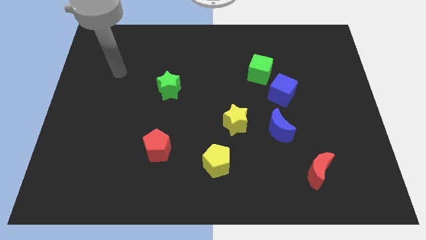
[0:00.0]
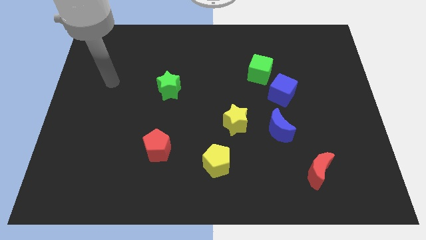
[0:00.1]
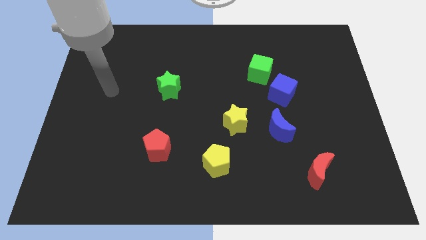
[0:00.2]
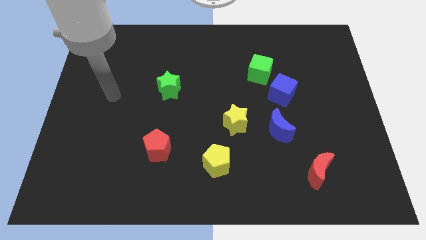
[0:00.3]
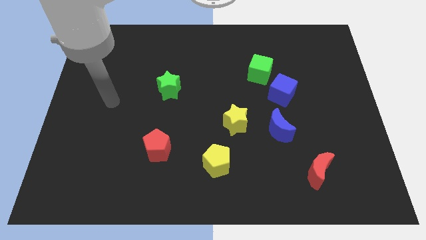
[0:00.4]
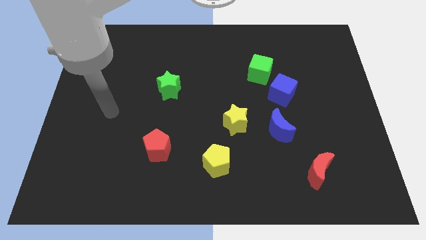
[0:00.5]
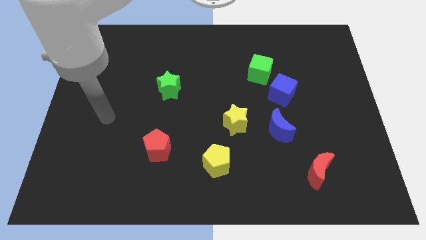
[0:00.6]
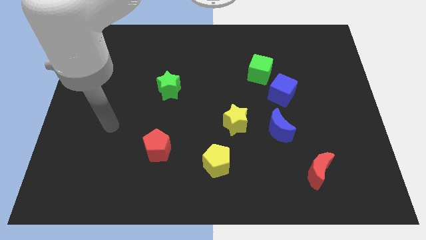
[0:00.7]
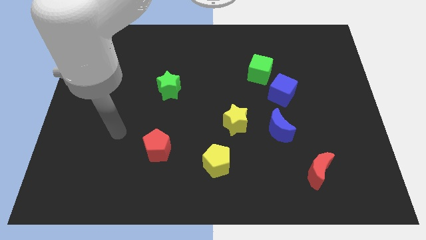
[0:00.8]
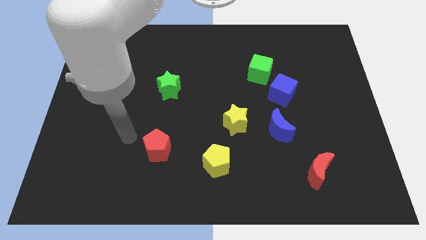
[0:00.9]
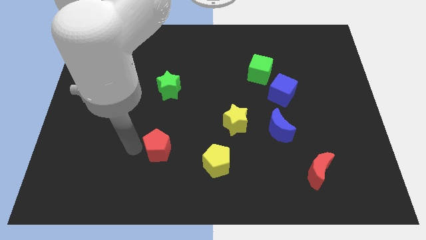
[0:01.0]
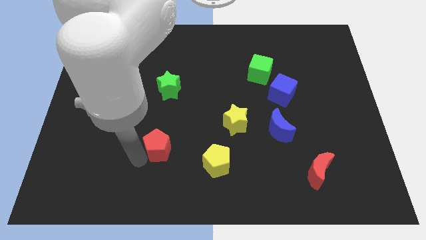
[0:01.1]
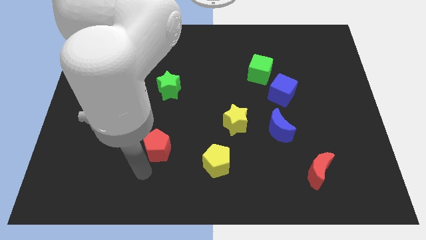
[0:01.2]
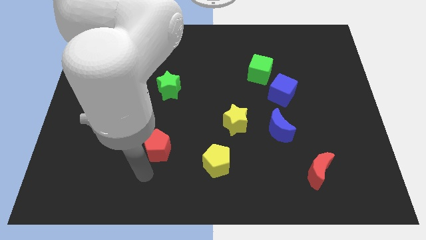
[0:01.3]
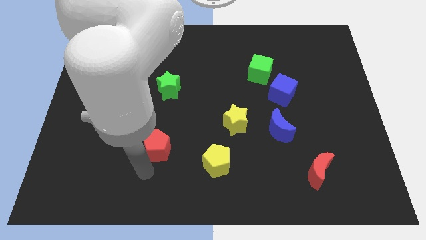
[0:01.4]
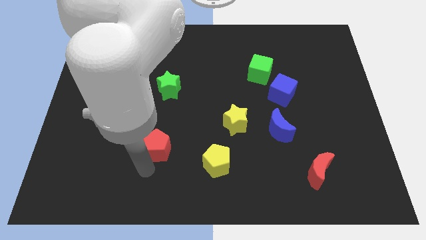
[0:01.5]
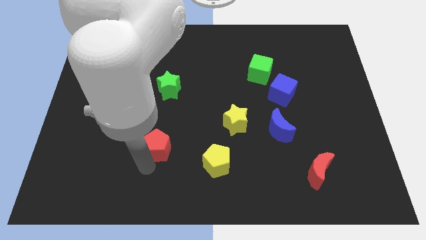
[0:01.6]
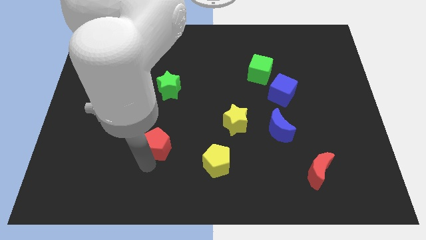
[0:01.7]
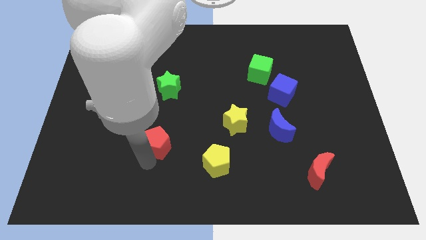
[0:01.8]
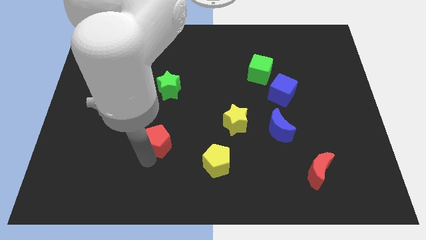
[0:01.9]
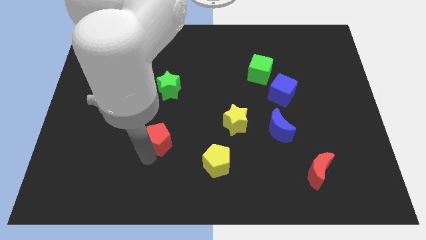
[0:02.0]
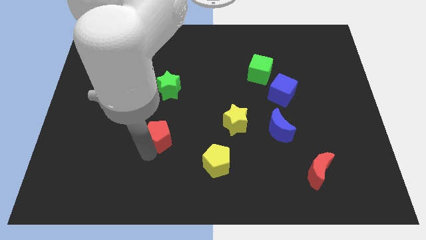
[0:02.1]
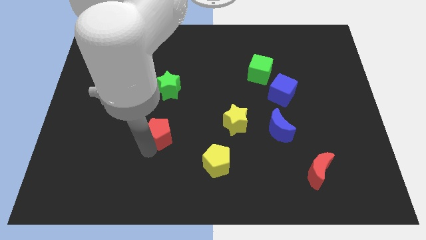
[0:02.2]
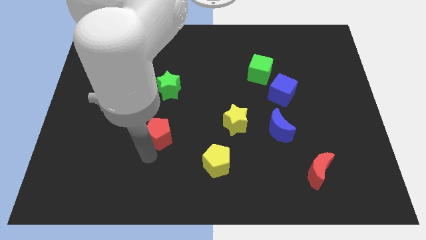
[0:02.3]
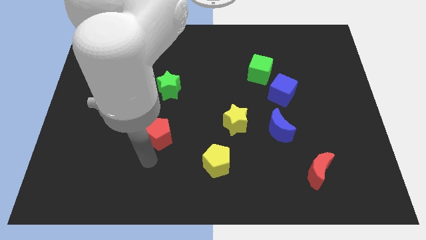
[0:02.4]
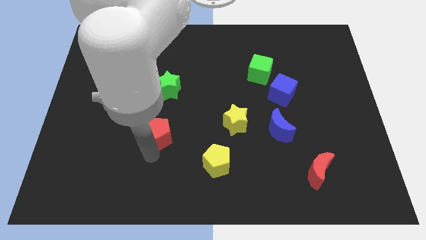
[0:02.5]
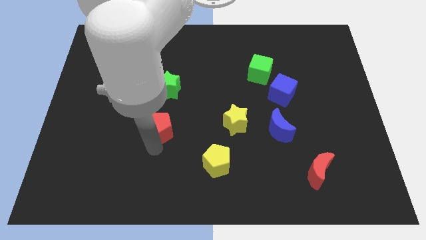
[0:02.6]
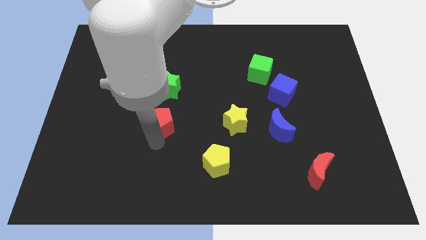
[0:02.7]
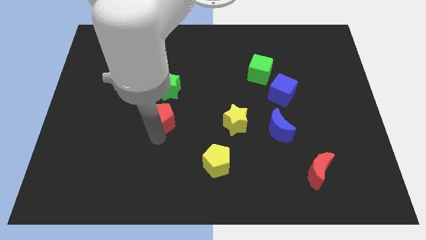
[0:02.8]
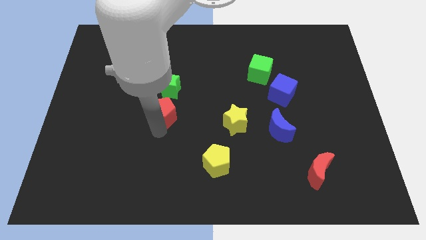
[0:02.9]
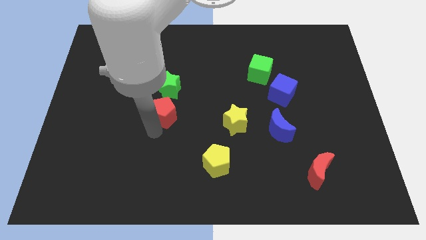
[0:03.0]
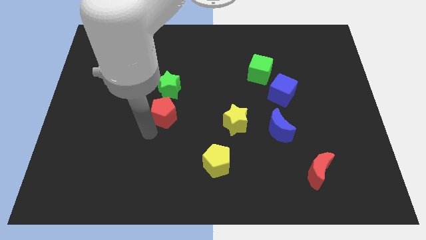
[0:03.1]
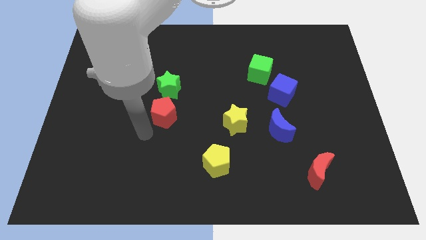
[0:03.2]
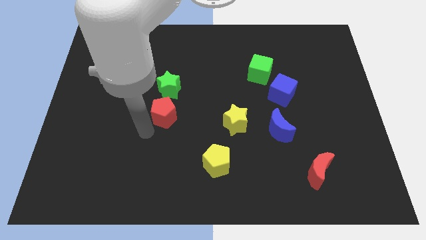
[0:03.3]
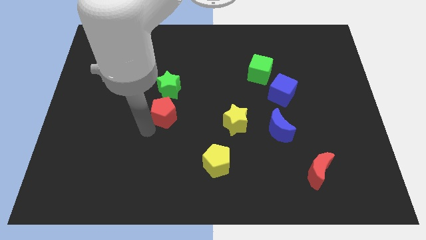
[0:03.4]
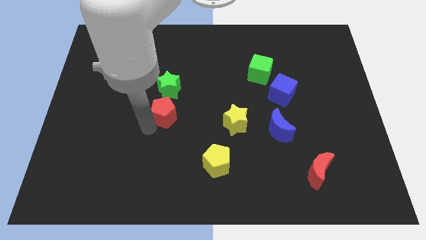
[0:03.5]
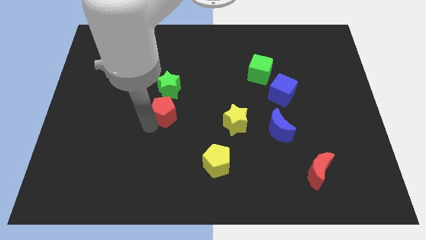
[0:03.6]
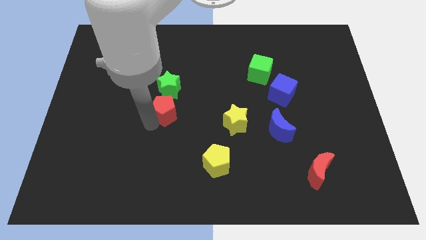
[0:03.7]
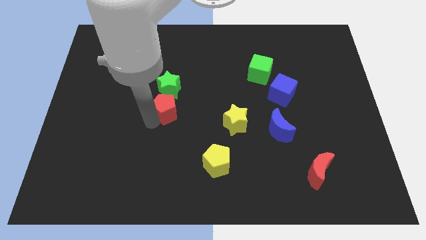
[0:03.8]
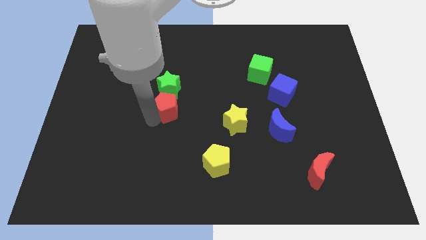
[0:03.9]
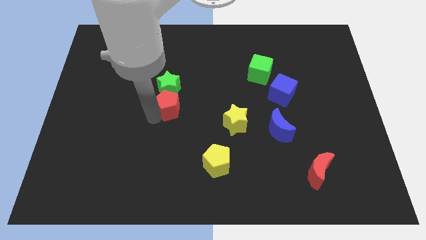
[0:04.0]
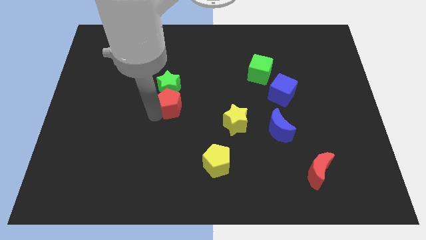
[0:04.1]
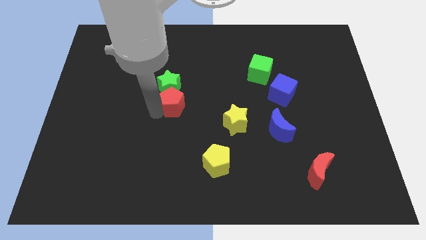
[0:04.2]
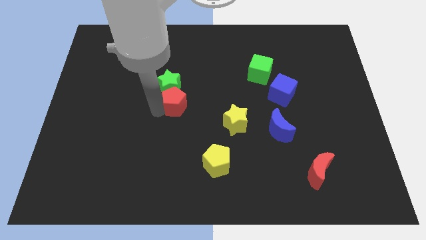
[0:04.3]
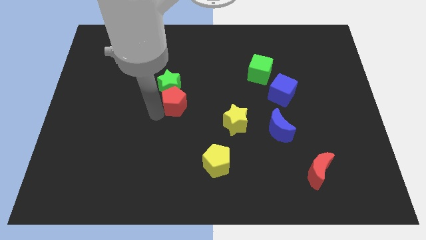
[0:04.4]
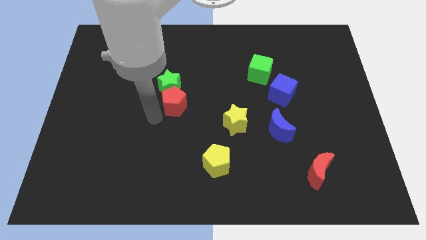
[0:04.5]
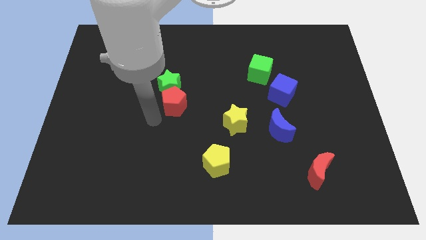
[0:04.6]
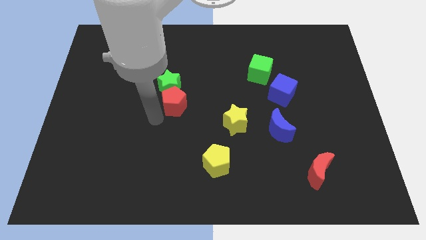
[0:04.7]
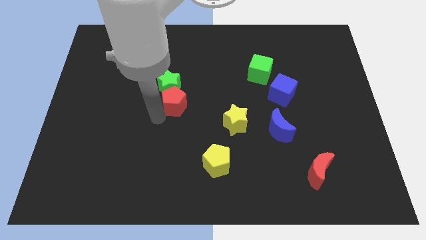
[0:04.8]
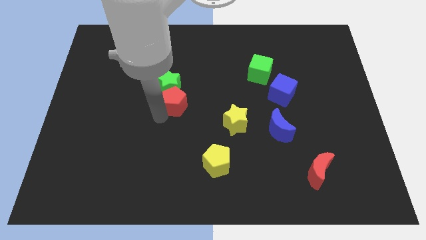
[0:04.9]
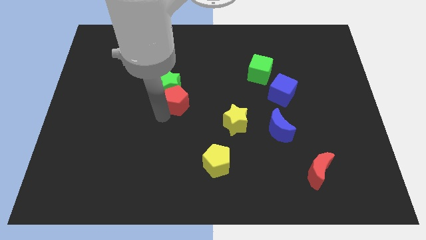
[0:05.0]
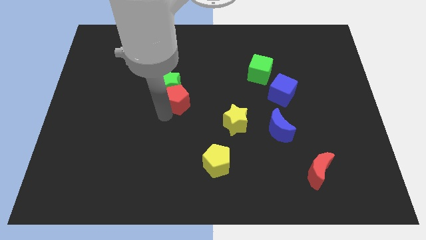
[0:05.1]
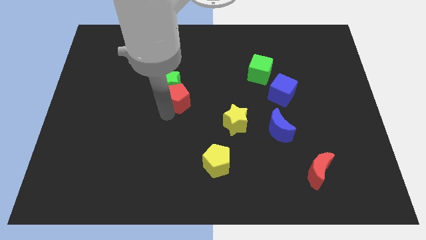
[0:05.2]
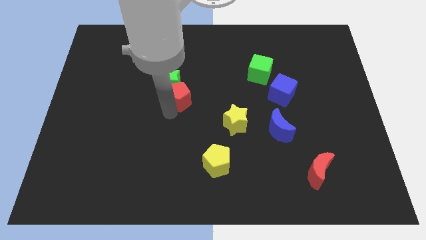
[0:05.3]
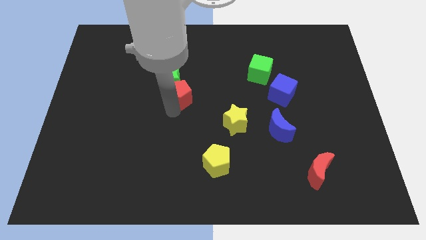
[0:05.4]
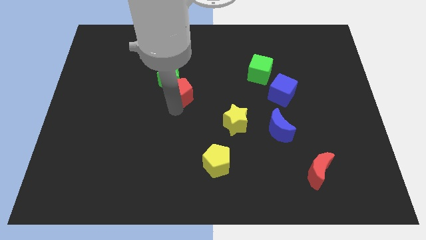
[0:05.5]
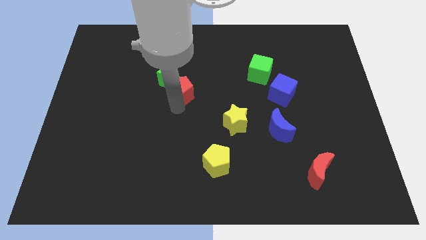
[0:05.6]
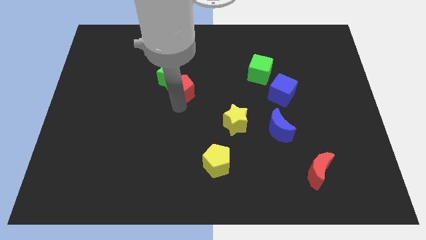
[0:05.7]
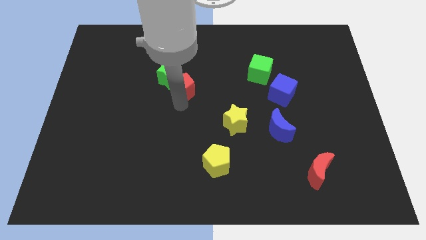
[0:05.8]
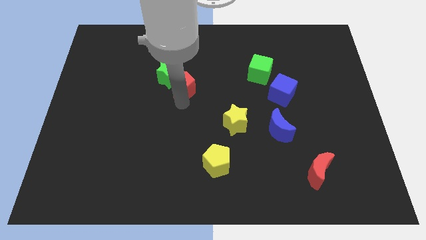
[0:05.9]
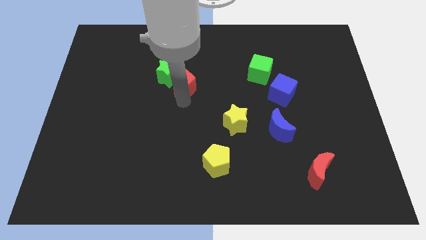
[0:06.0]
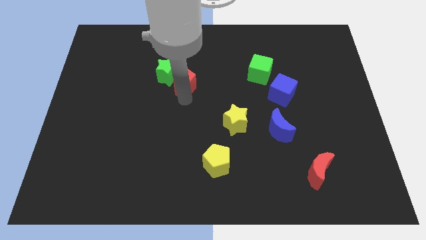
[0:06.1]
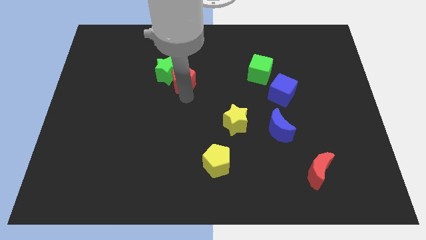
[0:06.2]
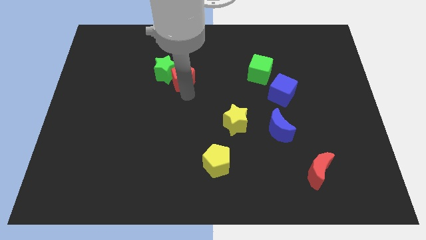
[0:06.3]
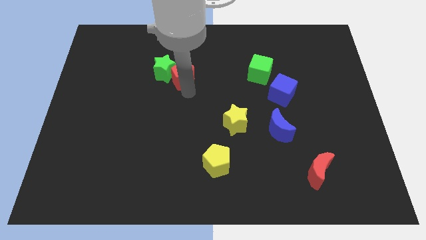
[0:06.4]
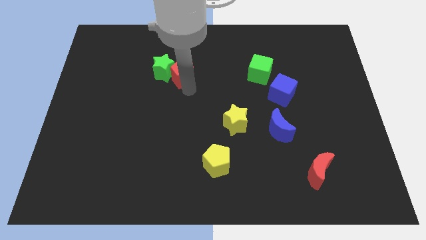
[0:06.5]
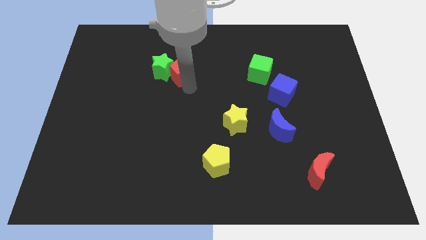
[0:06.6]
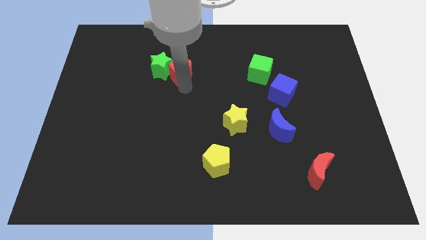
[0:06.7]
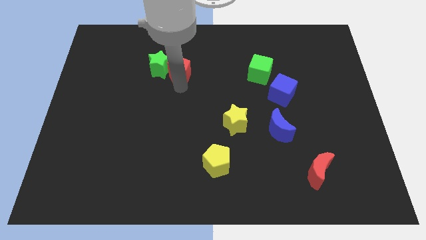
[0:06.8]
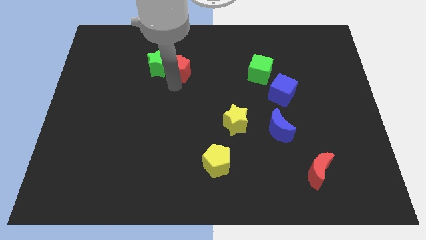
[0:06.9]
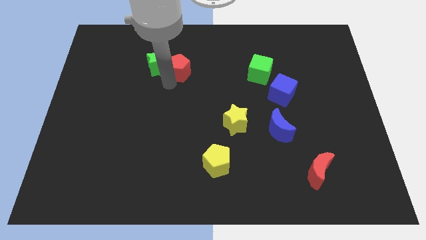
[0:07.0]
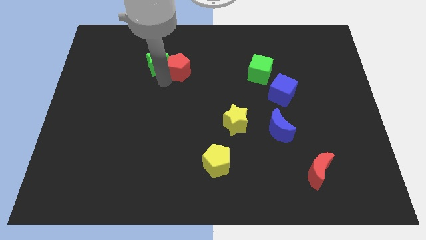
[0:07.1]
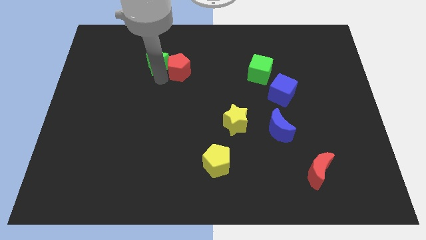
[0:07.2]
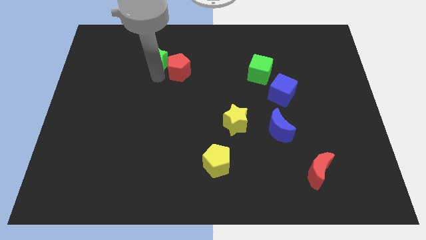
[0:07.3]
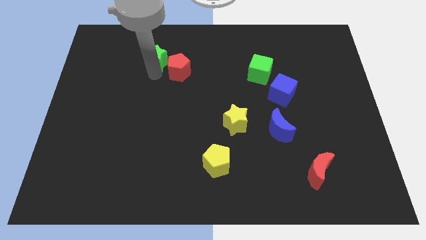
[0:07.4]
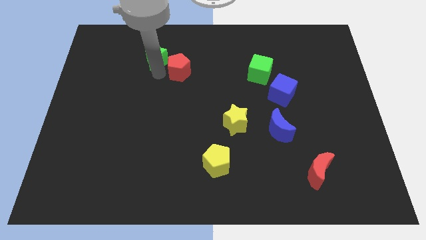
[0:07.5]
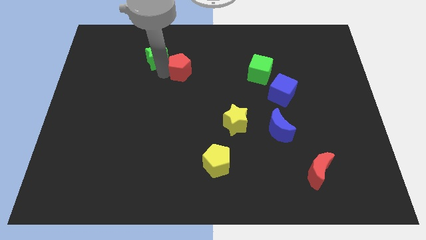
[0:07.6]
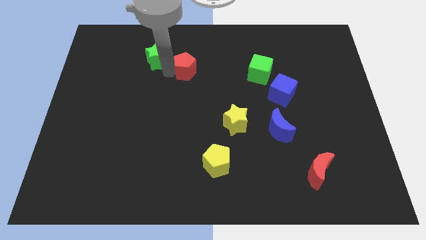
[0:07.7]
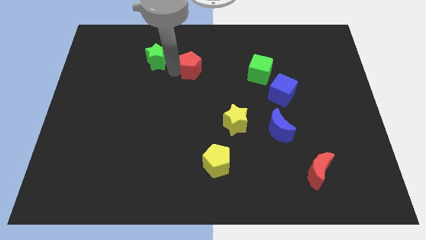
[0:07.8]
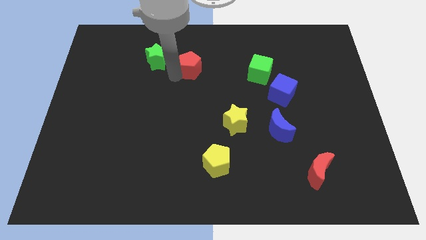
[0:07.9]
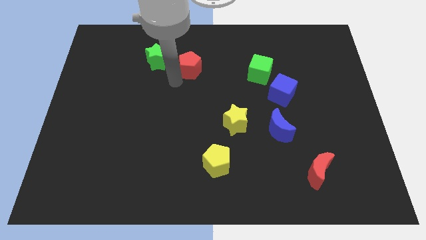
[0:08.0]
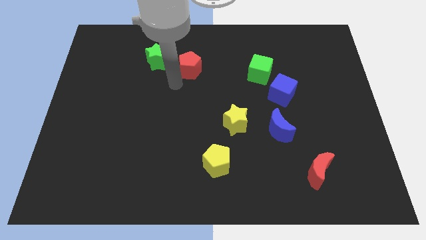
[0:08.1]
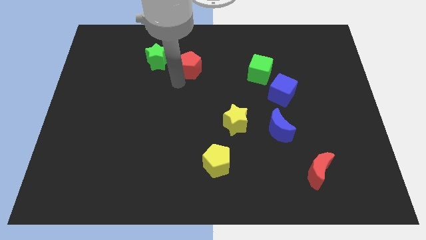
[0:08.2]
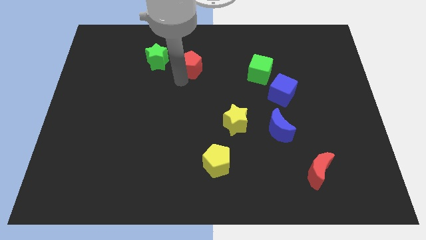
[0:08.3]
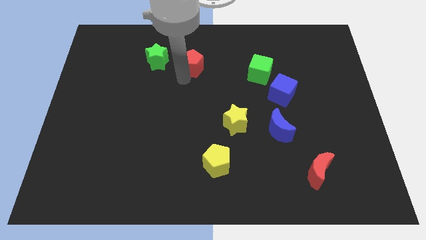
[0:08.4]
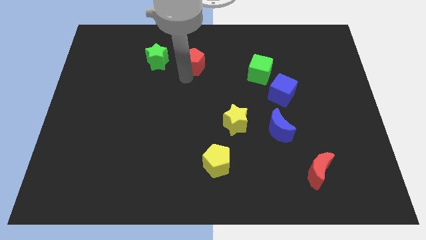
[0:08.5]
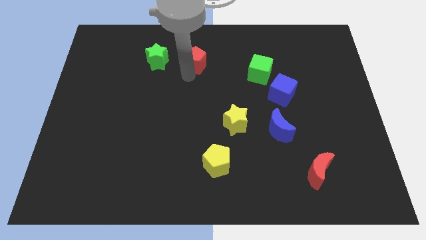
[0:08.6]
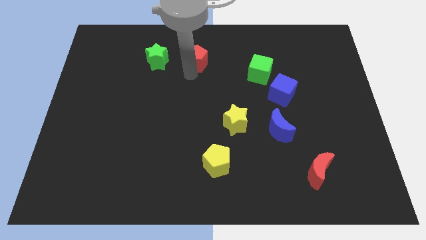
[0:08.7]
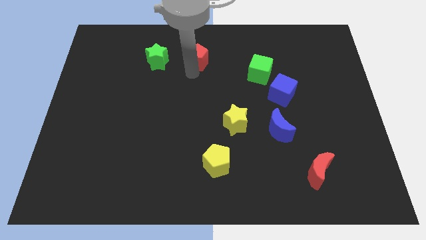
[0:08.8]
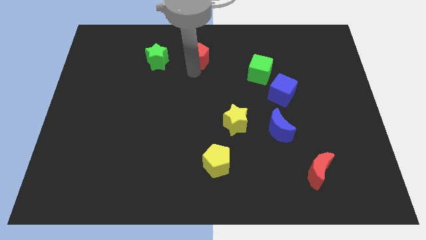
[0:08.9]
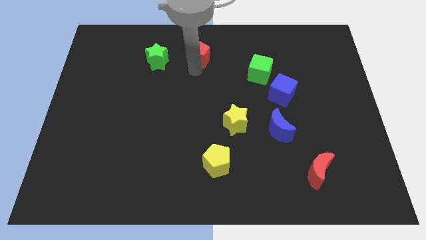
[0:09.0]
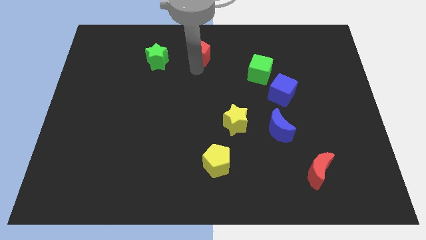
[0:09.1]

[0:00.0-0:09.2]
push the red pentagon to the towards your base
